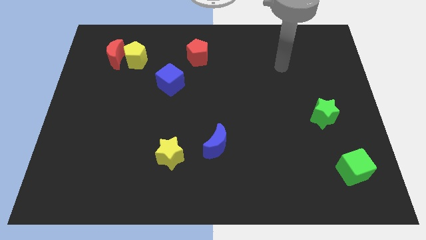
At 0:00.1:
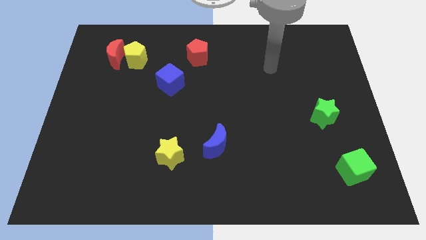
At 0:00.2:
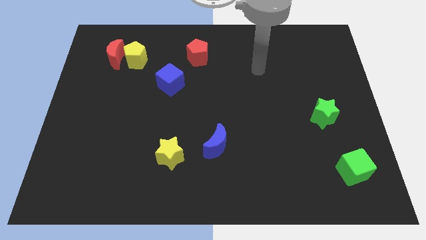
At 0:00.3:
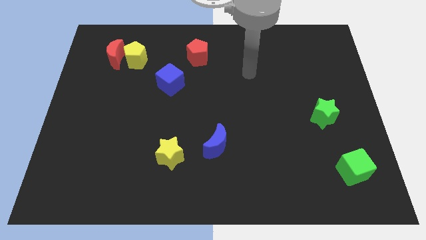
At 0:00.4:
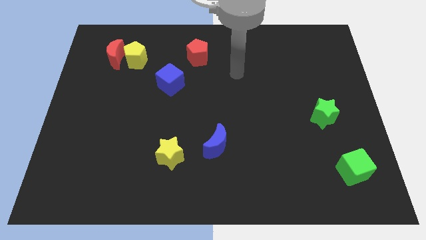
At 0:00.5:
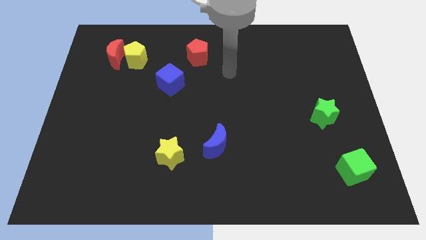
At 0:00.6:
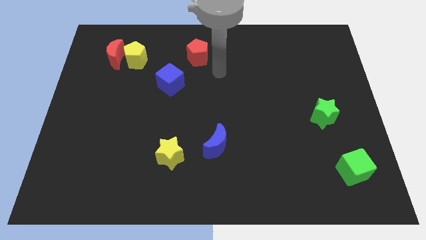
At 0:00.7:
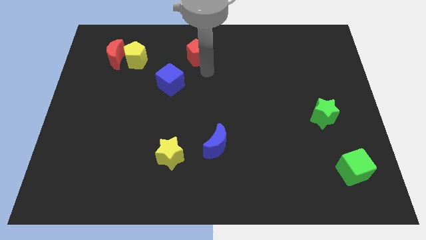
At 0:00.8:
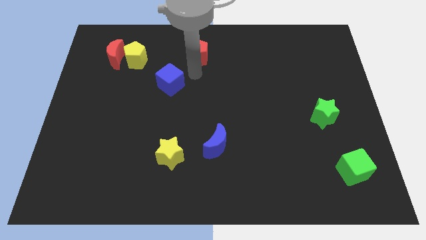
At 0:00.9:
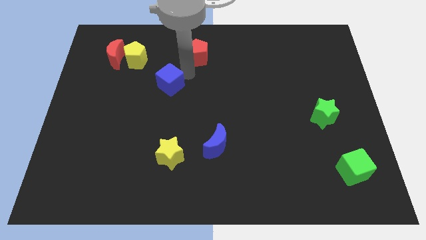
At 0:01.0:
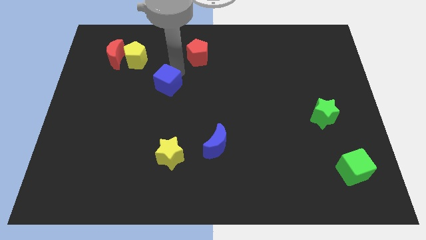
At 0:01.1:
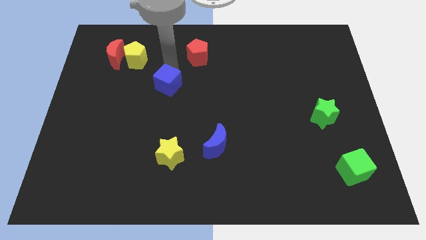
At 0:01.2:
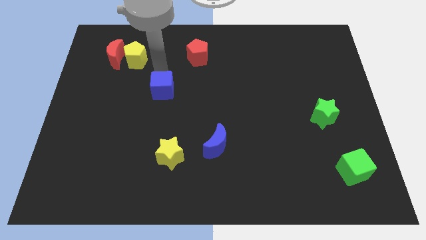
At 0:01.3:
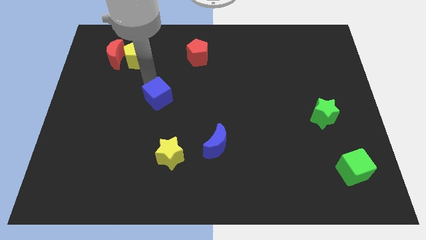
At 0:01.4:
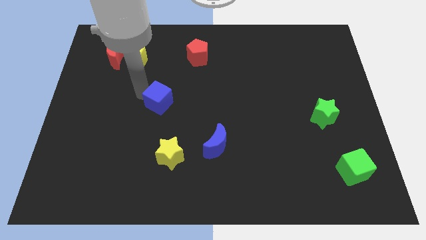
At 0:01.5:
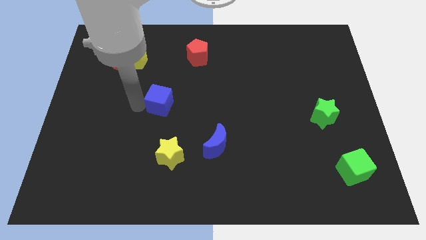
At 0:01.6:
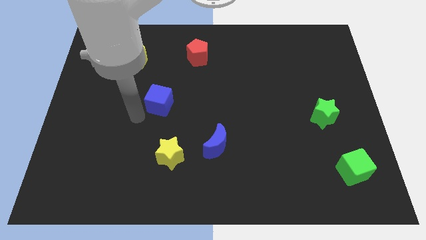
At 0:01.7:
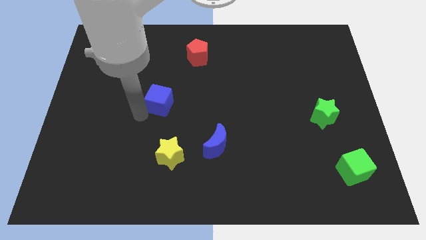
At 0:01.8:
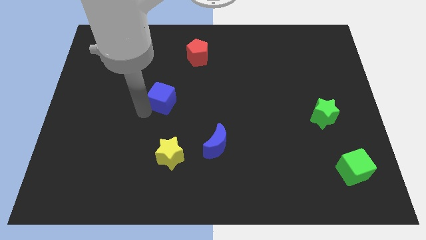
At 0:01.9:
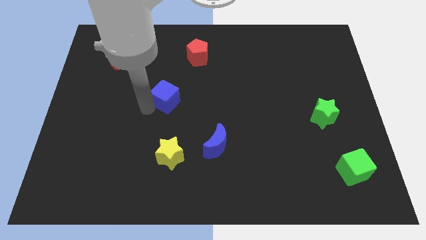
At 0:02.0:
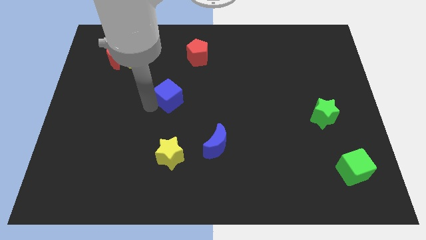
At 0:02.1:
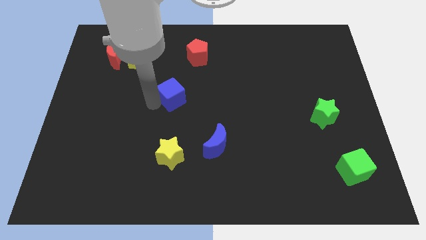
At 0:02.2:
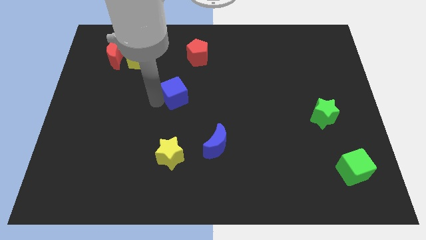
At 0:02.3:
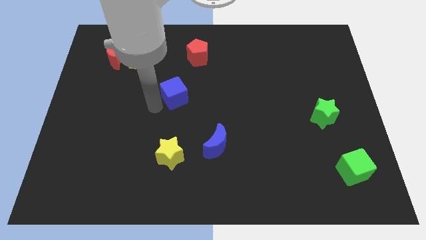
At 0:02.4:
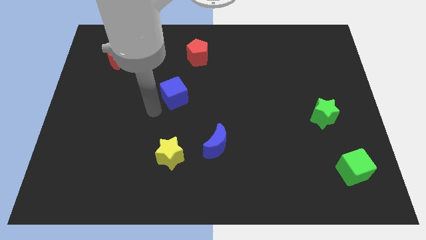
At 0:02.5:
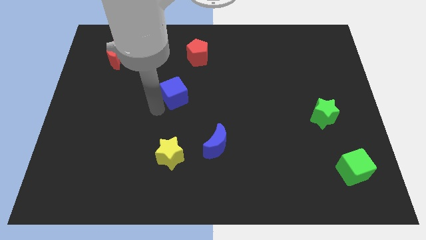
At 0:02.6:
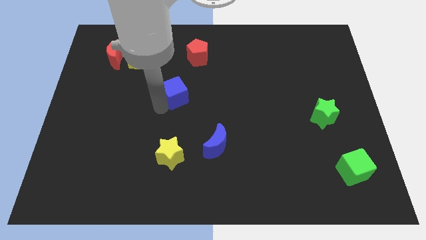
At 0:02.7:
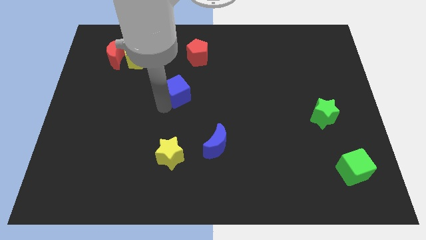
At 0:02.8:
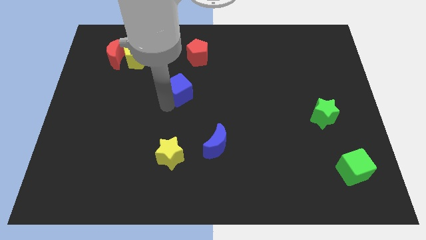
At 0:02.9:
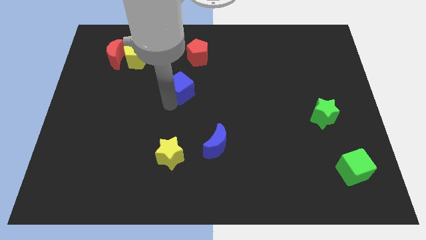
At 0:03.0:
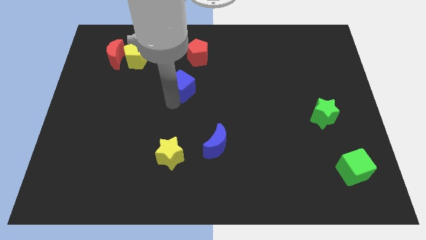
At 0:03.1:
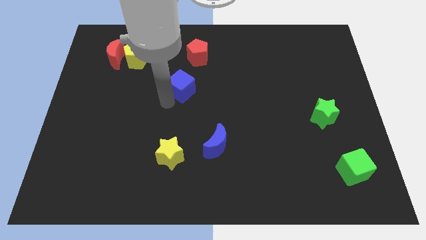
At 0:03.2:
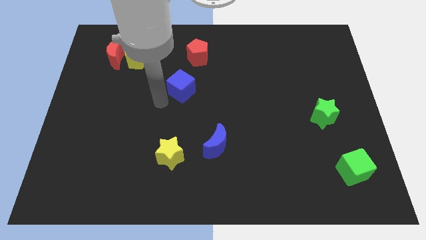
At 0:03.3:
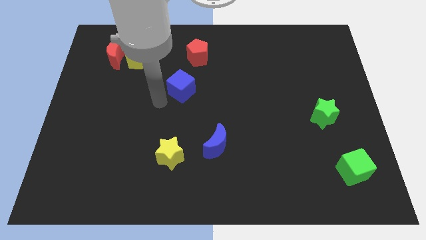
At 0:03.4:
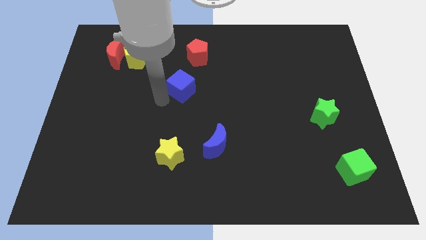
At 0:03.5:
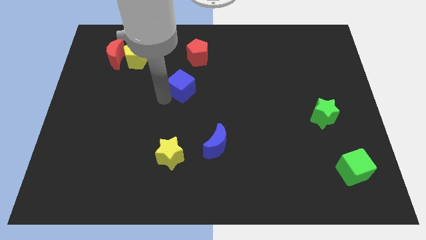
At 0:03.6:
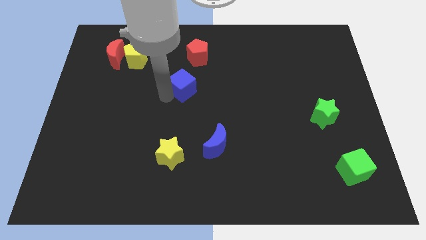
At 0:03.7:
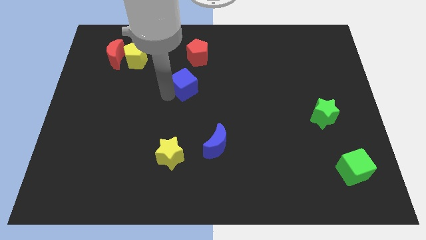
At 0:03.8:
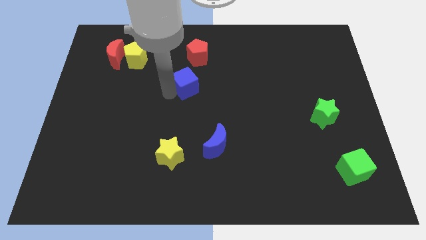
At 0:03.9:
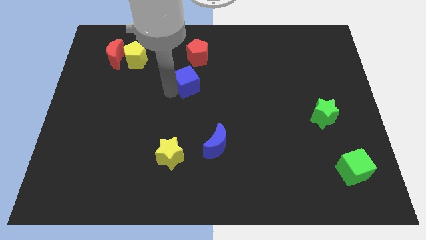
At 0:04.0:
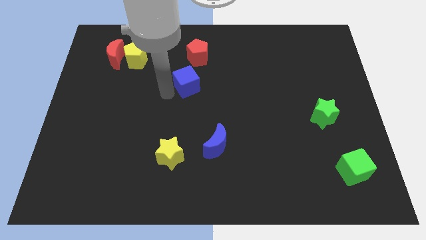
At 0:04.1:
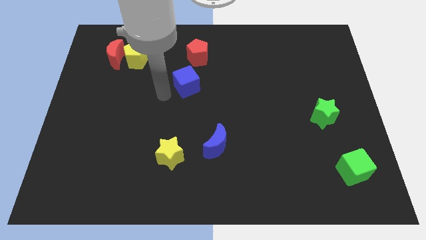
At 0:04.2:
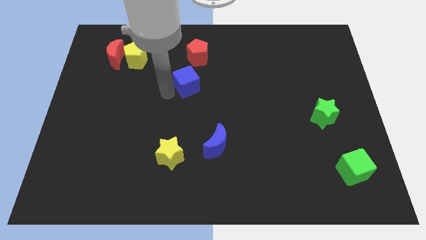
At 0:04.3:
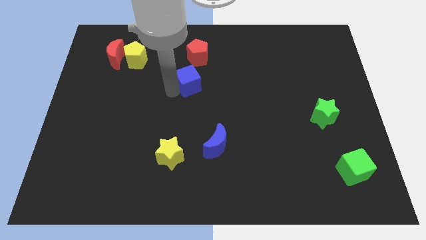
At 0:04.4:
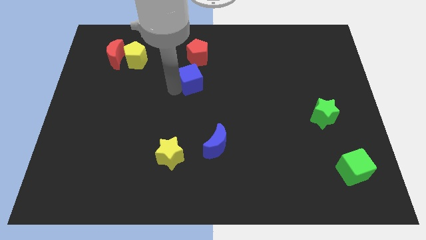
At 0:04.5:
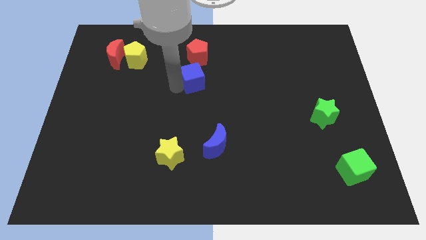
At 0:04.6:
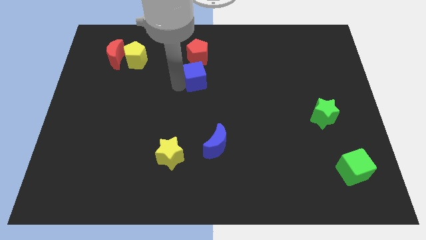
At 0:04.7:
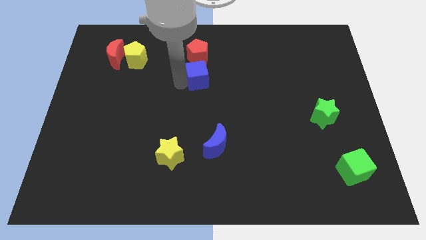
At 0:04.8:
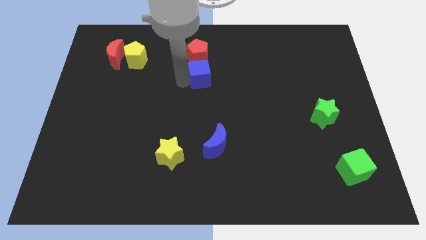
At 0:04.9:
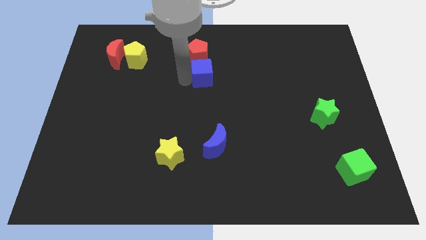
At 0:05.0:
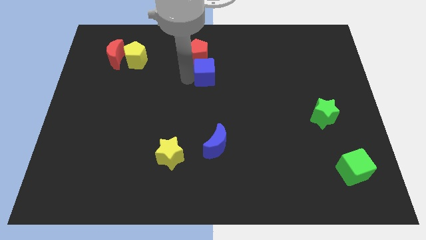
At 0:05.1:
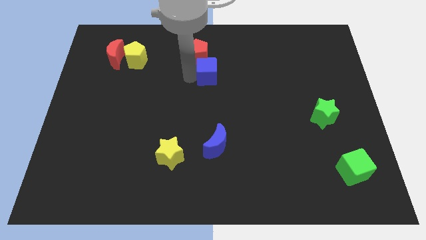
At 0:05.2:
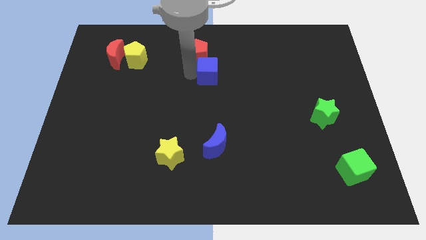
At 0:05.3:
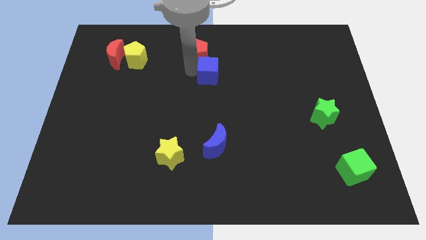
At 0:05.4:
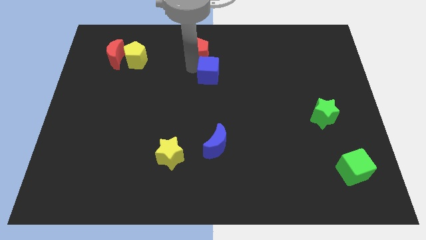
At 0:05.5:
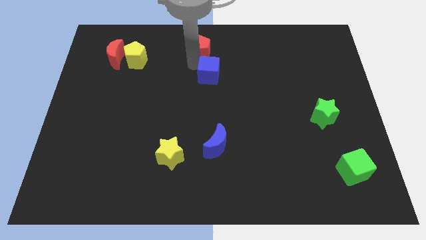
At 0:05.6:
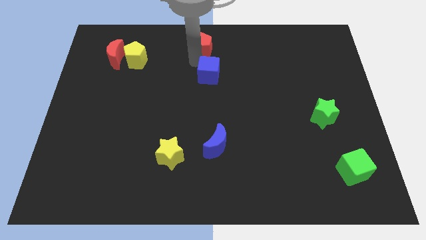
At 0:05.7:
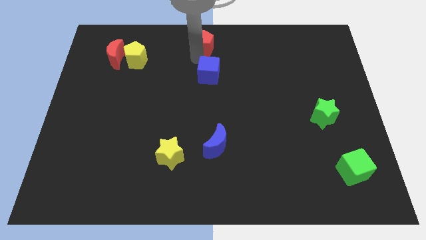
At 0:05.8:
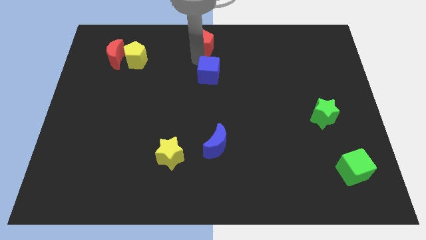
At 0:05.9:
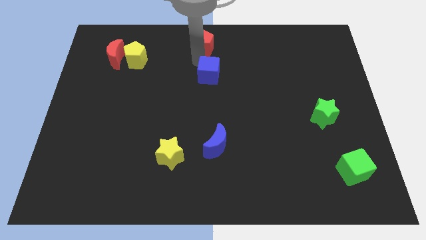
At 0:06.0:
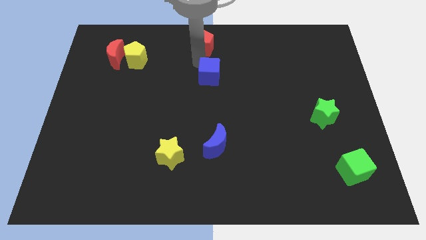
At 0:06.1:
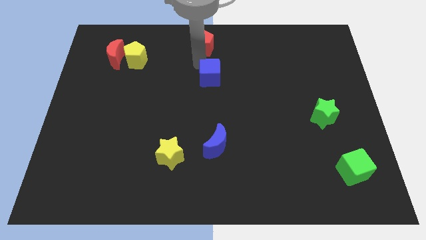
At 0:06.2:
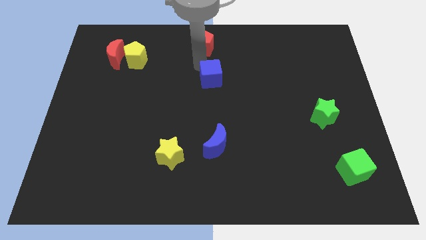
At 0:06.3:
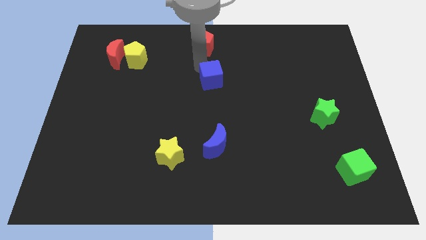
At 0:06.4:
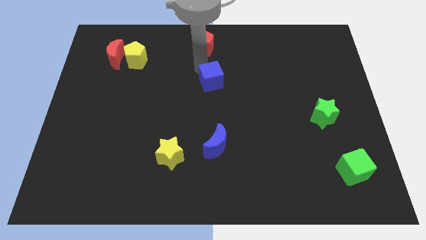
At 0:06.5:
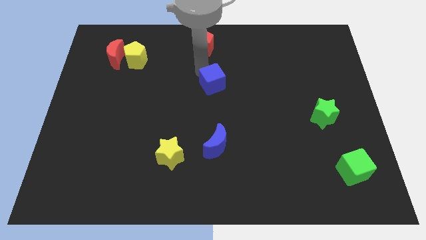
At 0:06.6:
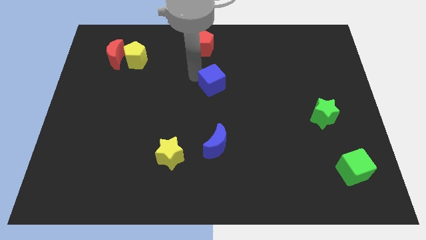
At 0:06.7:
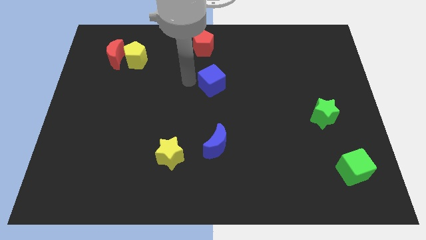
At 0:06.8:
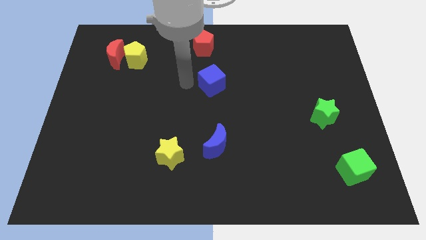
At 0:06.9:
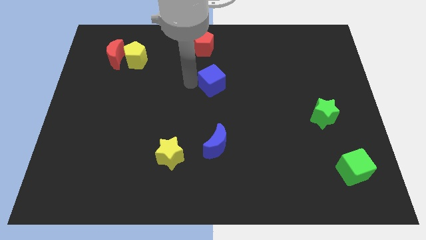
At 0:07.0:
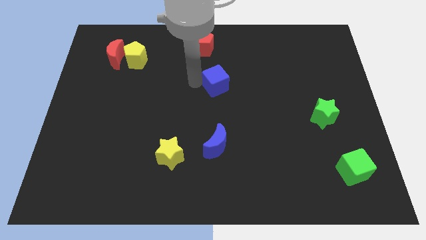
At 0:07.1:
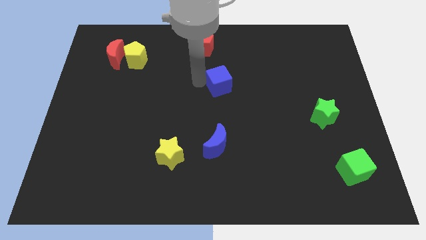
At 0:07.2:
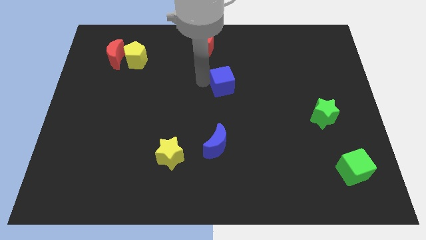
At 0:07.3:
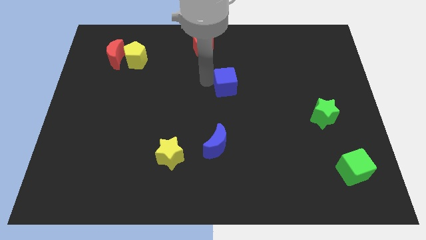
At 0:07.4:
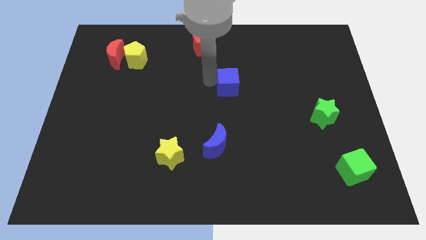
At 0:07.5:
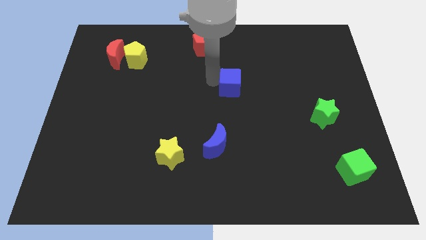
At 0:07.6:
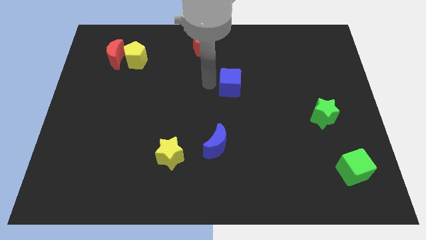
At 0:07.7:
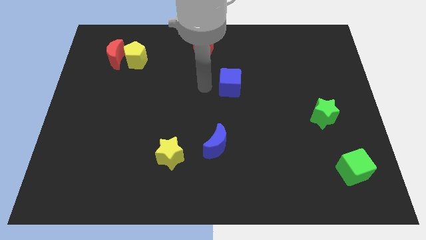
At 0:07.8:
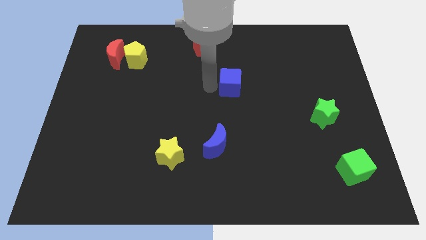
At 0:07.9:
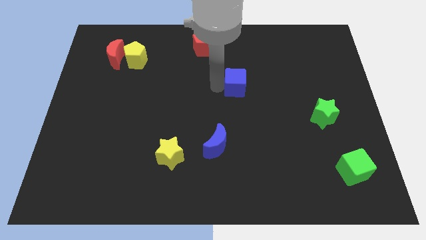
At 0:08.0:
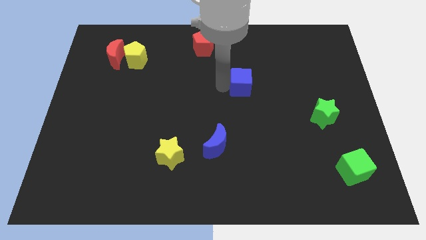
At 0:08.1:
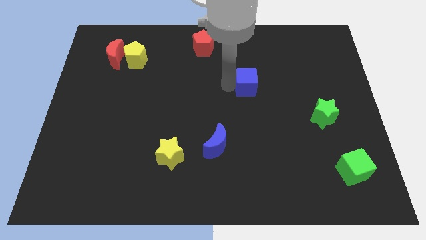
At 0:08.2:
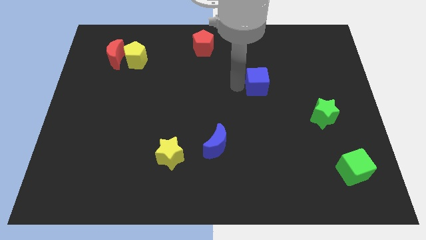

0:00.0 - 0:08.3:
push the blue cube to the right
